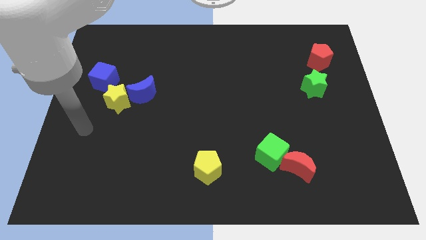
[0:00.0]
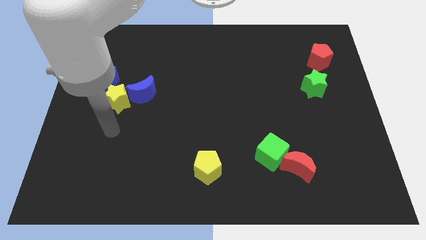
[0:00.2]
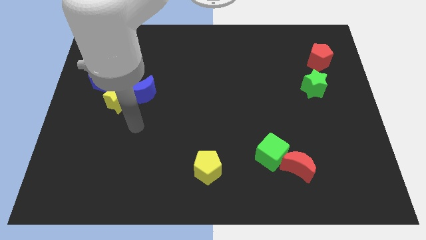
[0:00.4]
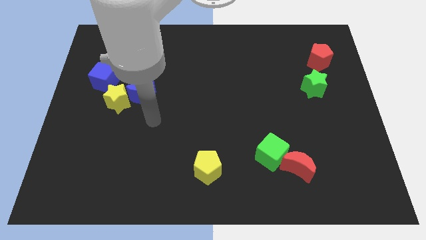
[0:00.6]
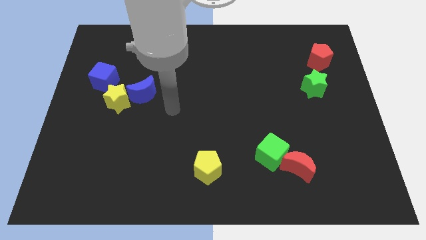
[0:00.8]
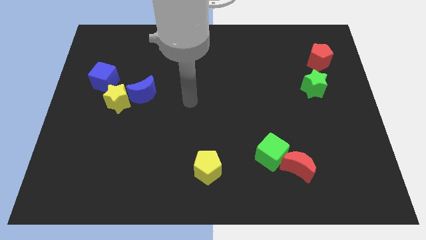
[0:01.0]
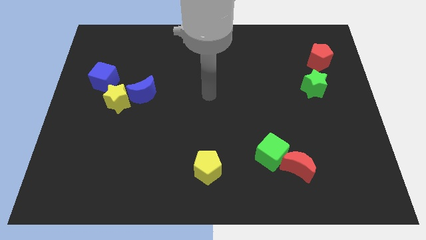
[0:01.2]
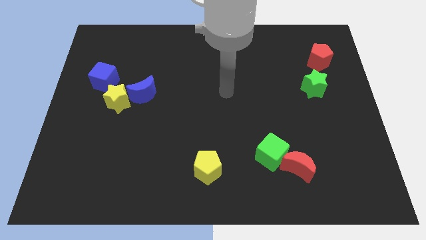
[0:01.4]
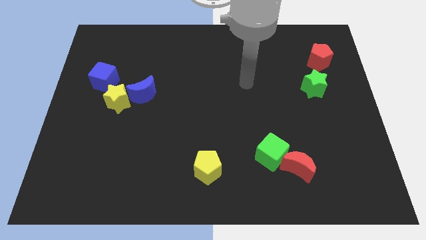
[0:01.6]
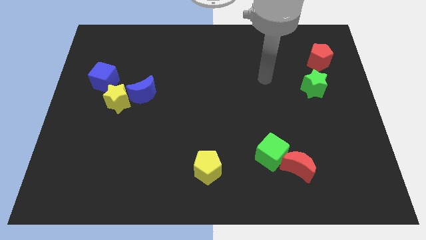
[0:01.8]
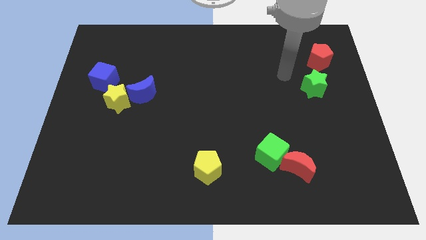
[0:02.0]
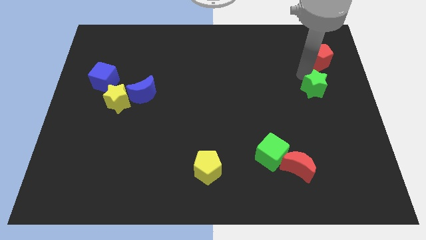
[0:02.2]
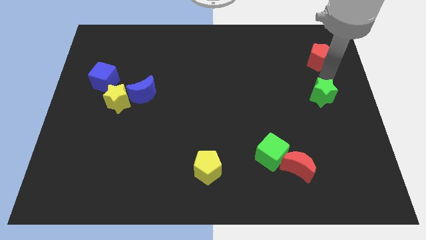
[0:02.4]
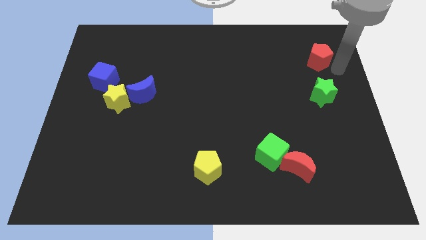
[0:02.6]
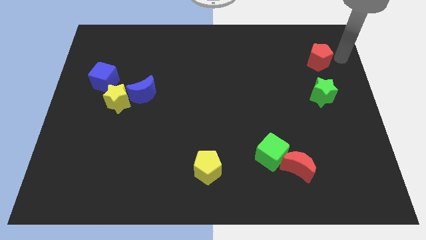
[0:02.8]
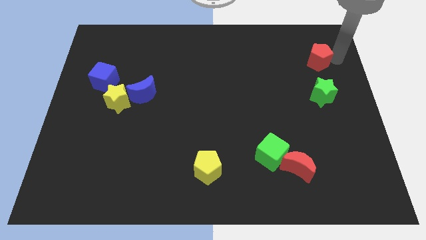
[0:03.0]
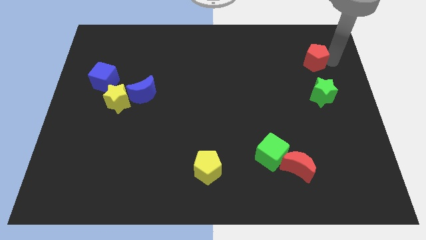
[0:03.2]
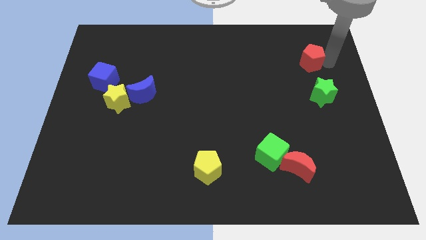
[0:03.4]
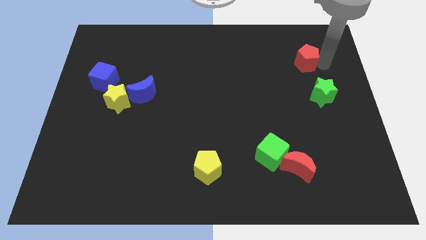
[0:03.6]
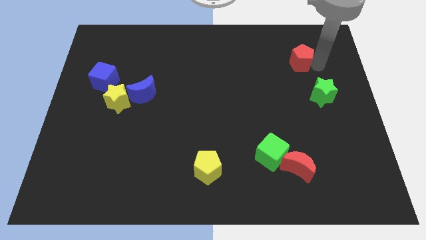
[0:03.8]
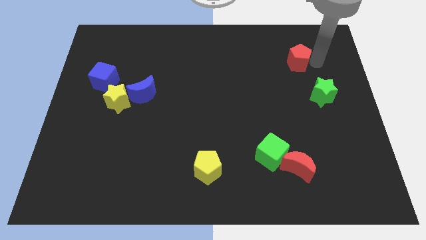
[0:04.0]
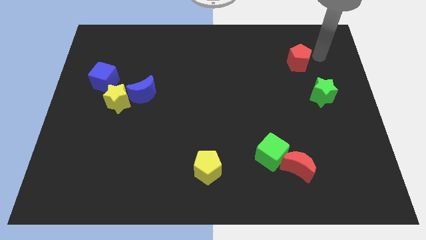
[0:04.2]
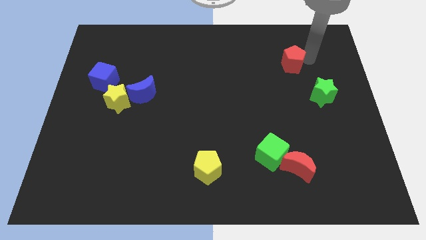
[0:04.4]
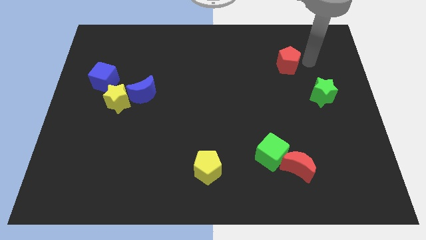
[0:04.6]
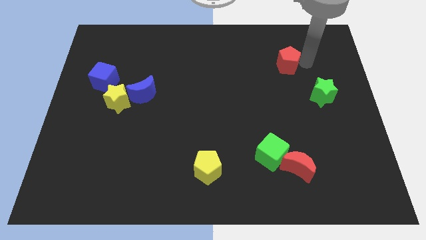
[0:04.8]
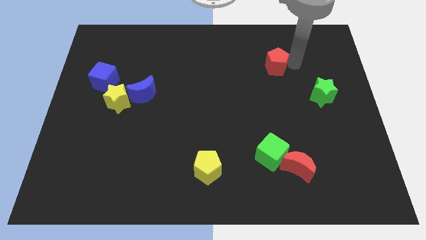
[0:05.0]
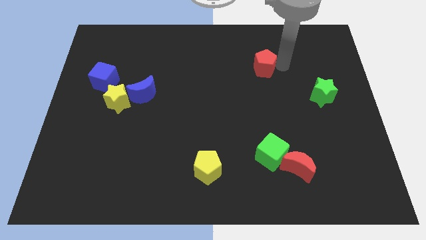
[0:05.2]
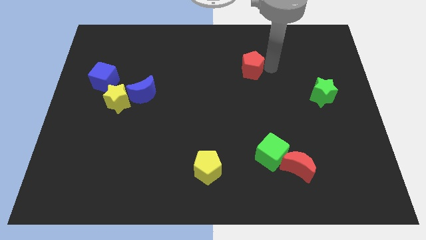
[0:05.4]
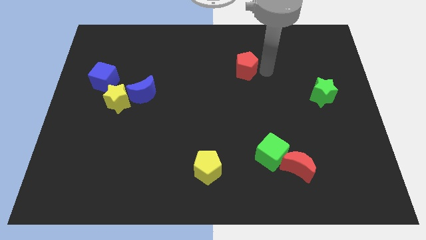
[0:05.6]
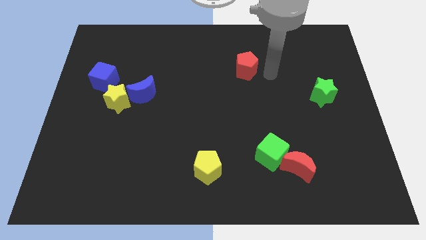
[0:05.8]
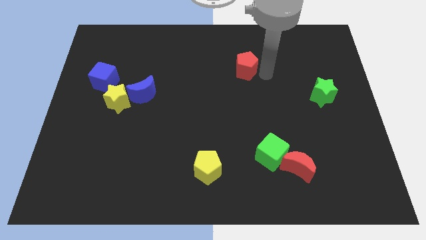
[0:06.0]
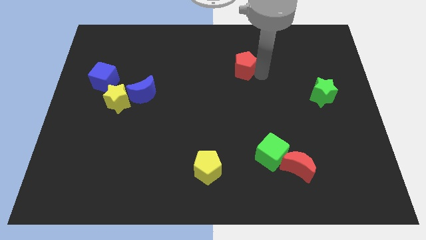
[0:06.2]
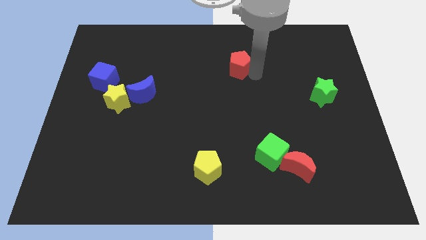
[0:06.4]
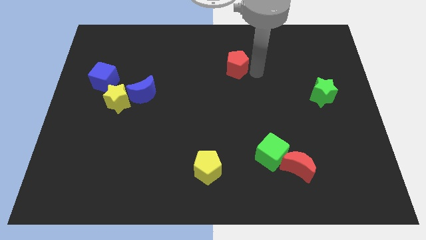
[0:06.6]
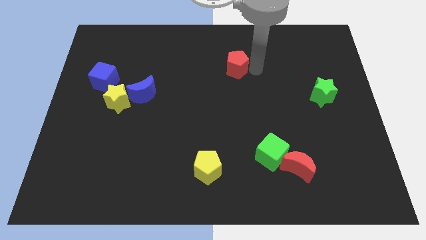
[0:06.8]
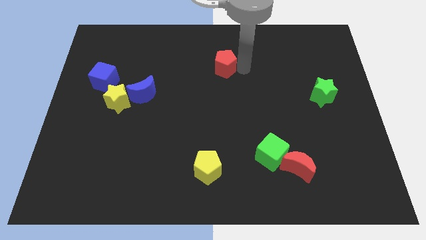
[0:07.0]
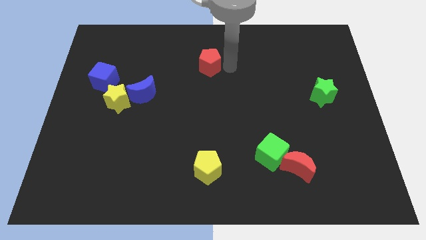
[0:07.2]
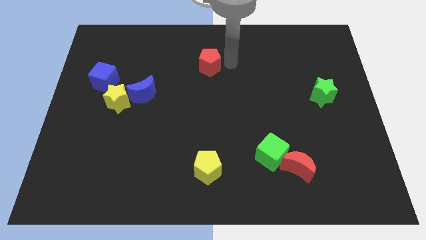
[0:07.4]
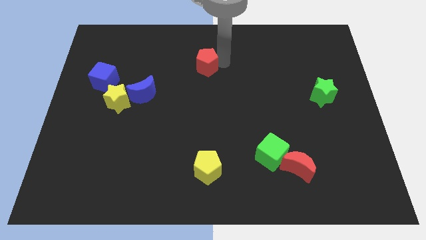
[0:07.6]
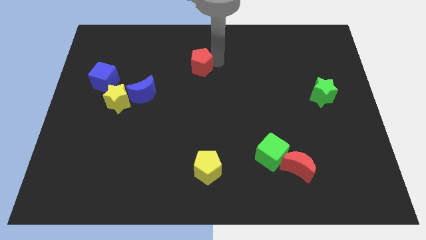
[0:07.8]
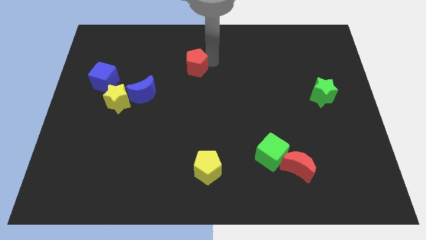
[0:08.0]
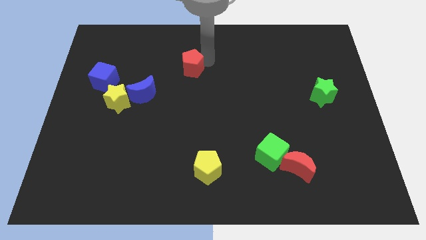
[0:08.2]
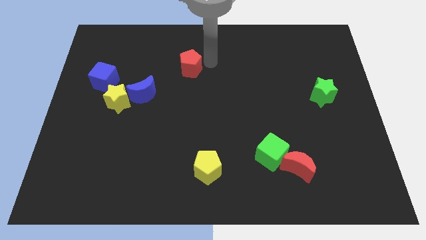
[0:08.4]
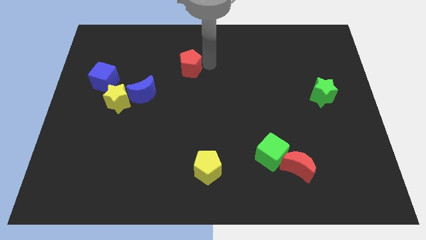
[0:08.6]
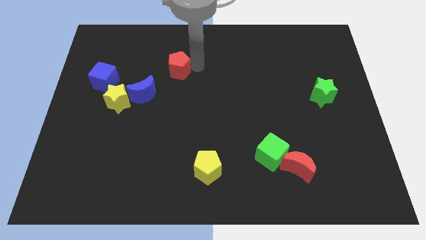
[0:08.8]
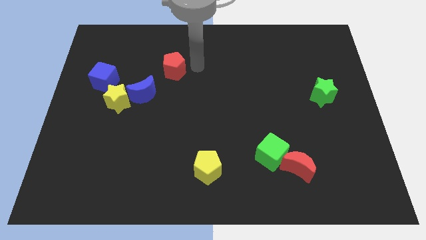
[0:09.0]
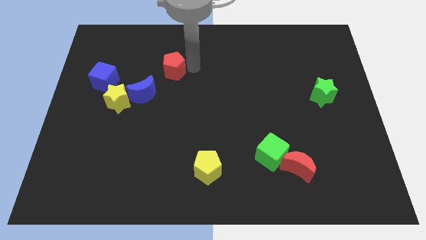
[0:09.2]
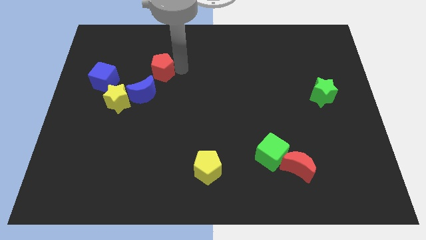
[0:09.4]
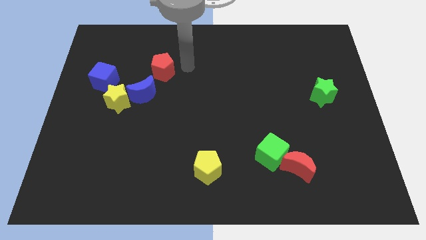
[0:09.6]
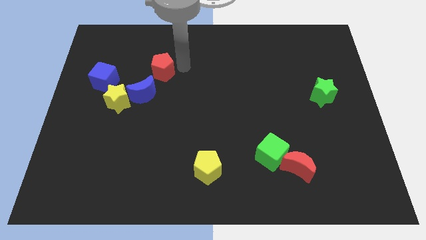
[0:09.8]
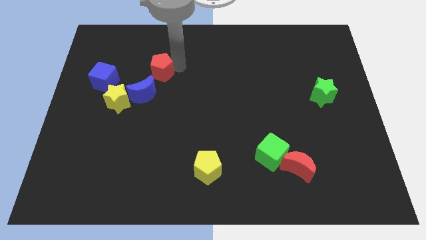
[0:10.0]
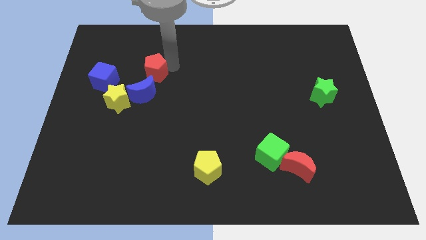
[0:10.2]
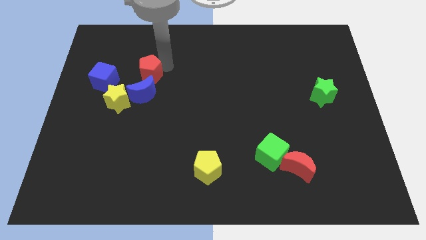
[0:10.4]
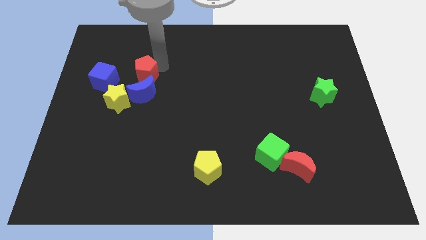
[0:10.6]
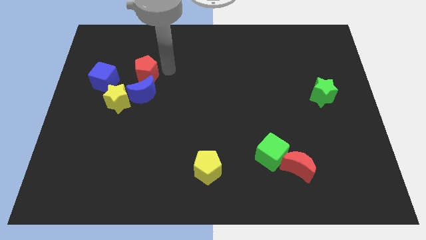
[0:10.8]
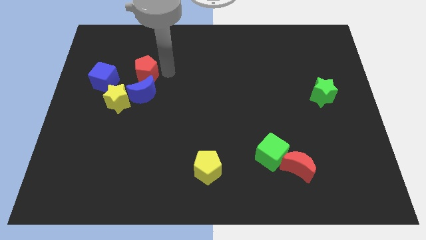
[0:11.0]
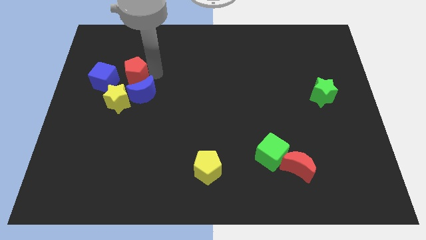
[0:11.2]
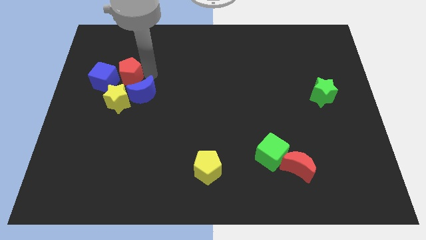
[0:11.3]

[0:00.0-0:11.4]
move the red pentagon towards the blue cube

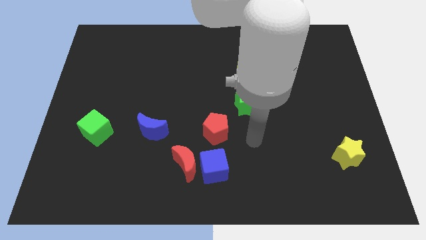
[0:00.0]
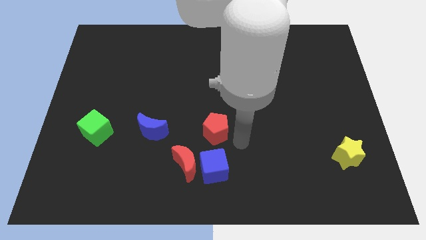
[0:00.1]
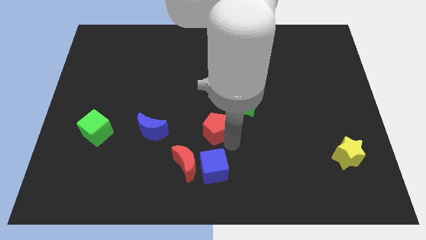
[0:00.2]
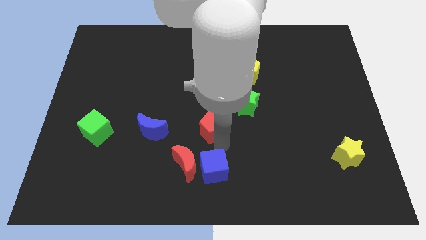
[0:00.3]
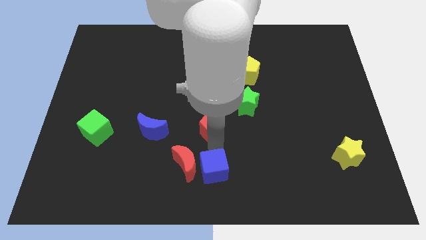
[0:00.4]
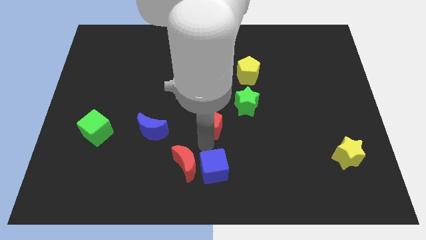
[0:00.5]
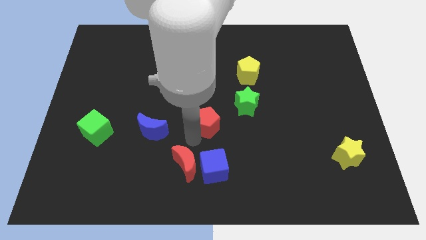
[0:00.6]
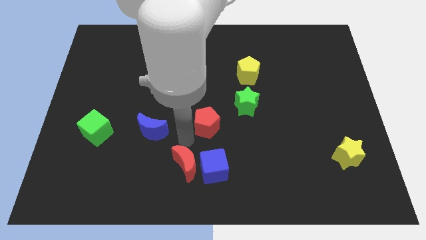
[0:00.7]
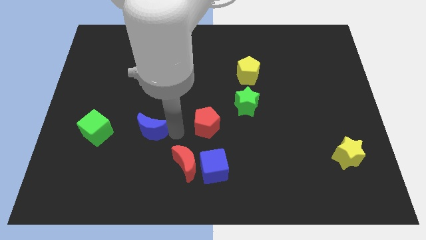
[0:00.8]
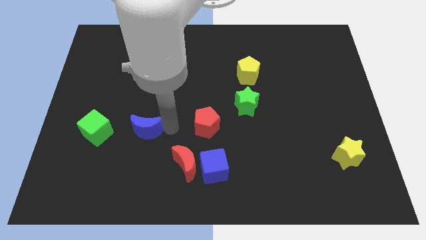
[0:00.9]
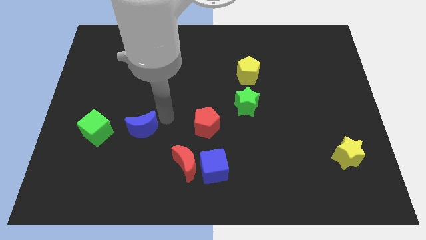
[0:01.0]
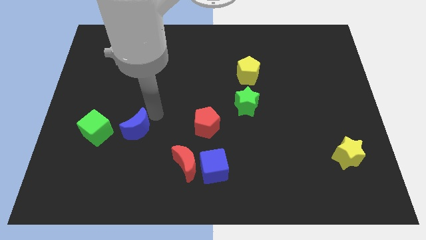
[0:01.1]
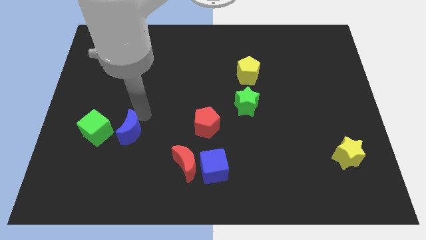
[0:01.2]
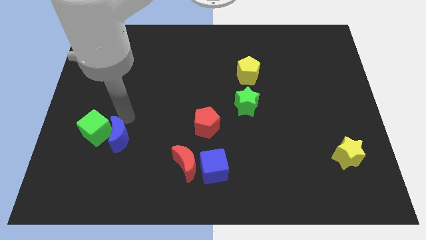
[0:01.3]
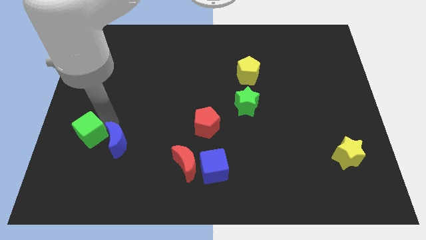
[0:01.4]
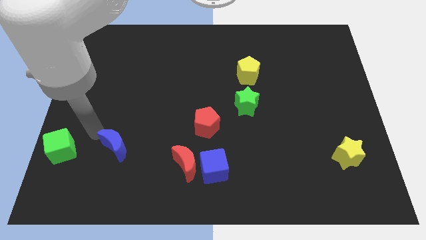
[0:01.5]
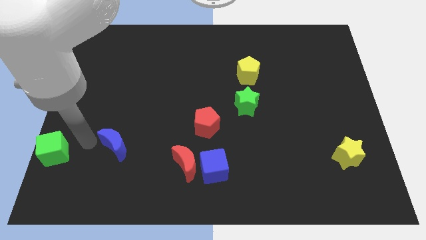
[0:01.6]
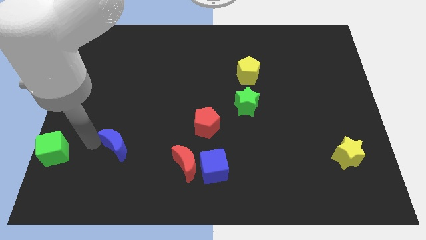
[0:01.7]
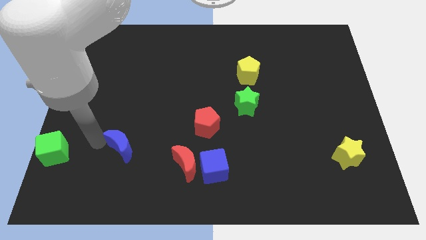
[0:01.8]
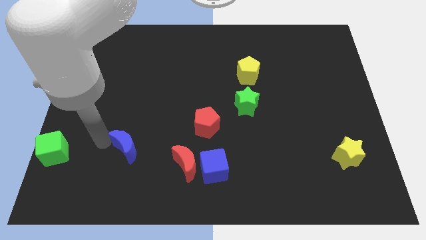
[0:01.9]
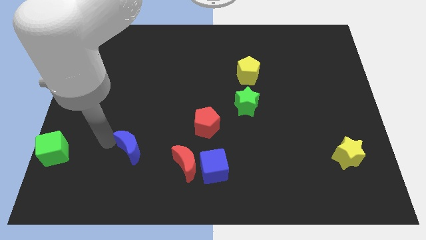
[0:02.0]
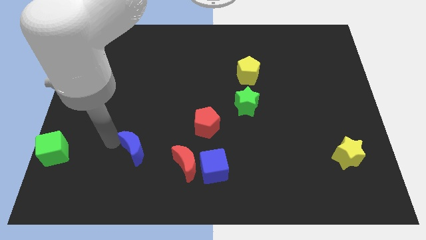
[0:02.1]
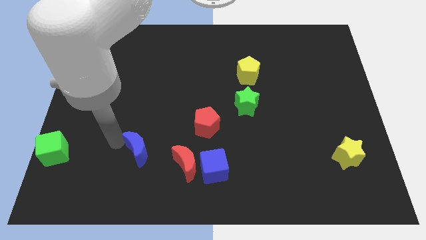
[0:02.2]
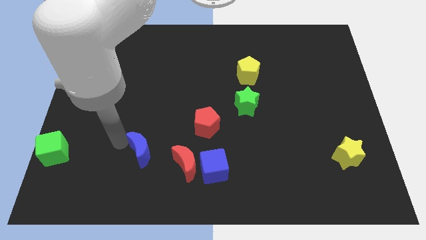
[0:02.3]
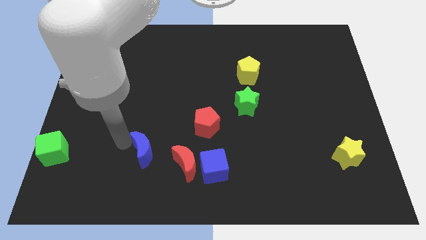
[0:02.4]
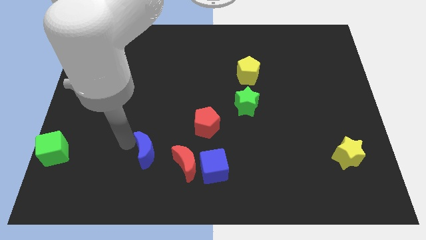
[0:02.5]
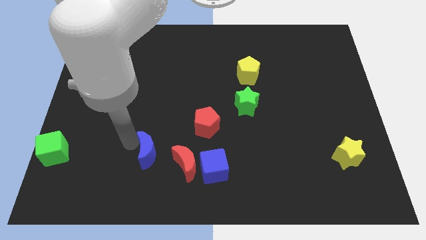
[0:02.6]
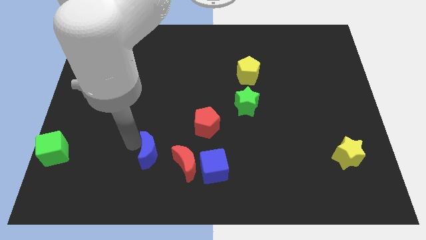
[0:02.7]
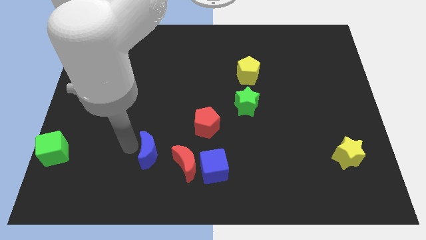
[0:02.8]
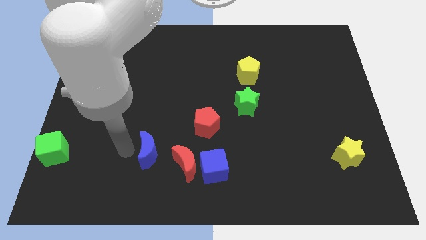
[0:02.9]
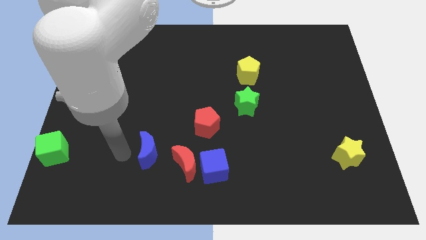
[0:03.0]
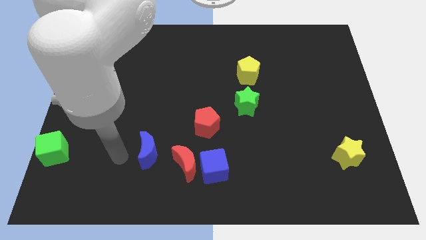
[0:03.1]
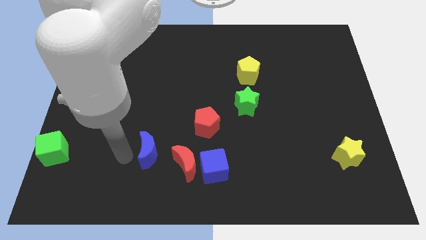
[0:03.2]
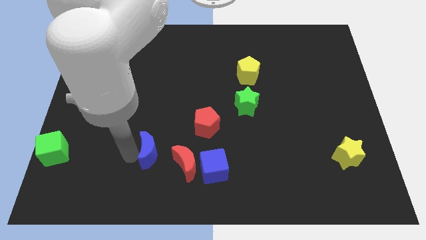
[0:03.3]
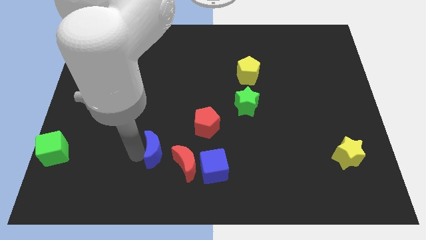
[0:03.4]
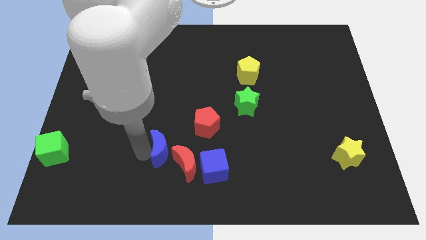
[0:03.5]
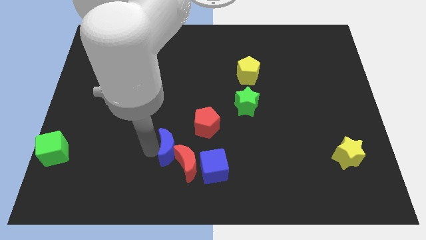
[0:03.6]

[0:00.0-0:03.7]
push the blue moon close to the red moon
